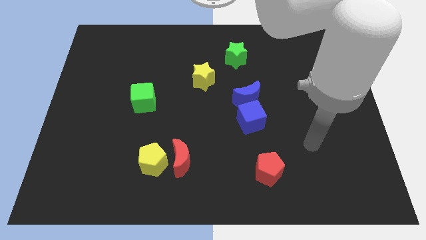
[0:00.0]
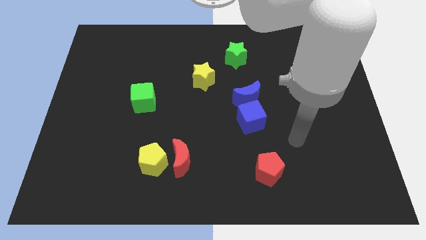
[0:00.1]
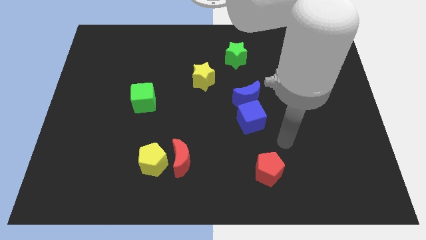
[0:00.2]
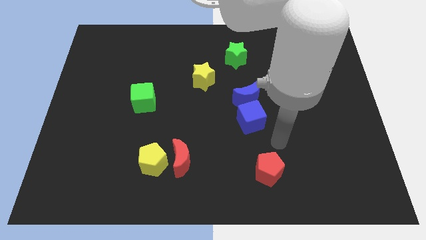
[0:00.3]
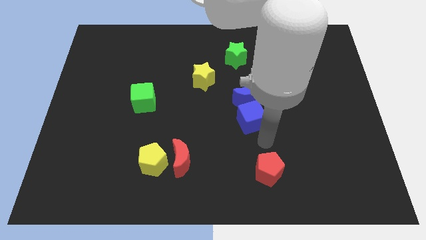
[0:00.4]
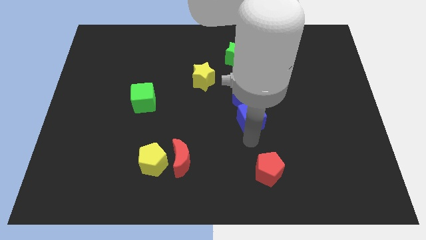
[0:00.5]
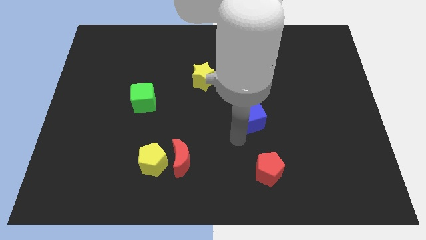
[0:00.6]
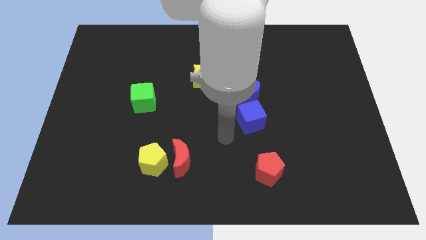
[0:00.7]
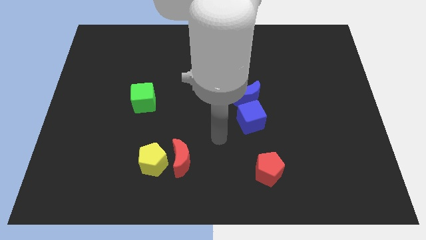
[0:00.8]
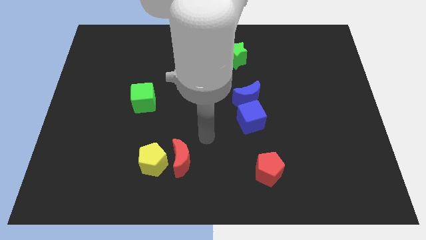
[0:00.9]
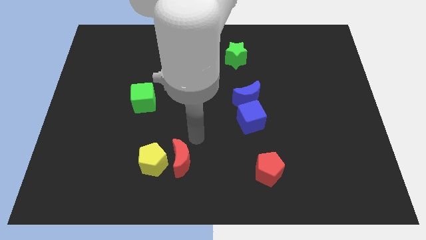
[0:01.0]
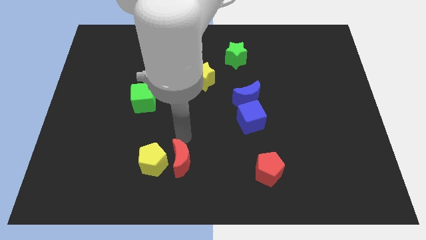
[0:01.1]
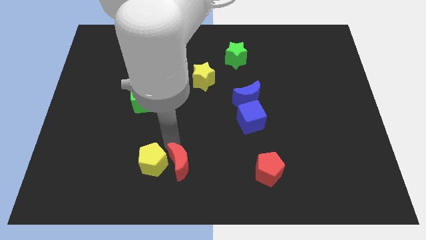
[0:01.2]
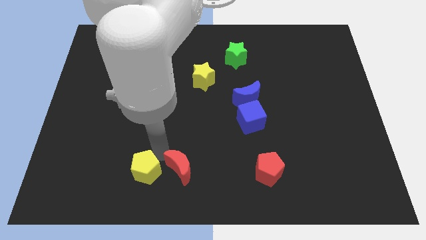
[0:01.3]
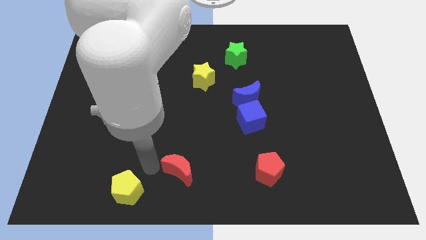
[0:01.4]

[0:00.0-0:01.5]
separate the red moon from the yellow pentagon

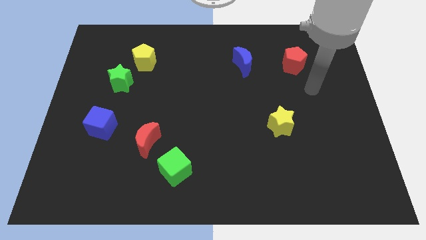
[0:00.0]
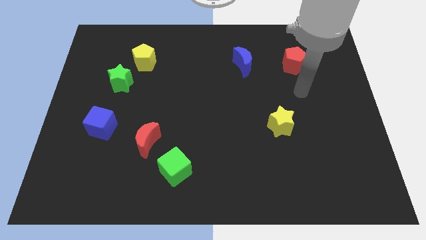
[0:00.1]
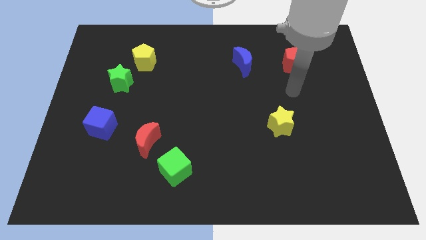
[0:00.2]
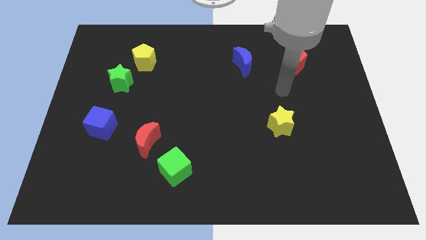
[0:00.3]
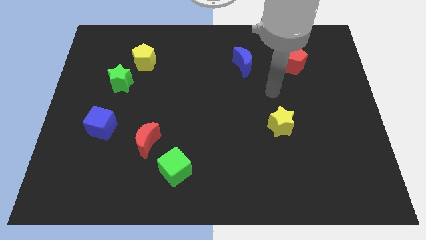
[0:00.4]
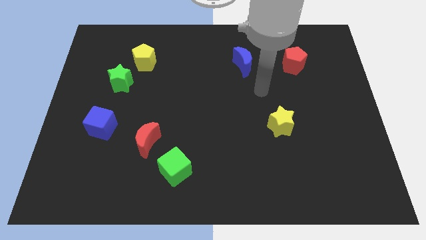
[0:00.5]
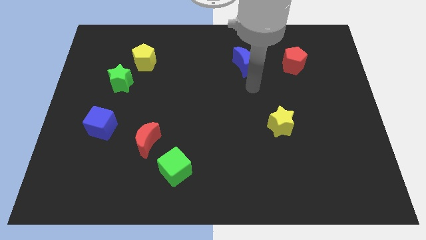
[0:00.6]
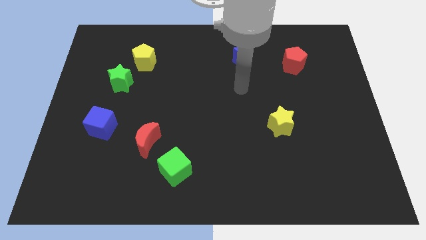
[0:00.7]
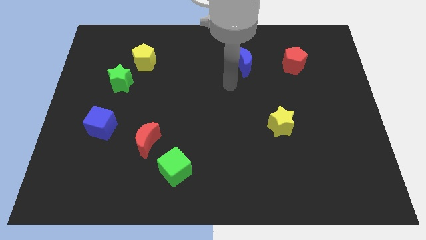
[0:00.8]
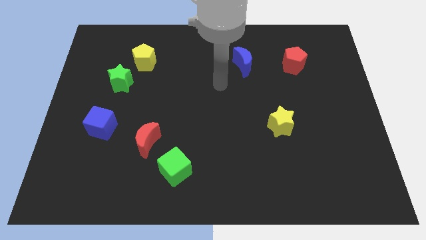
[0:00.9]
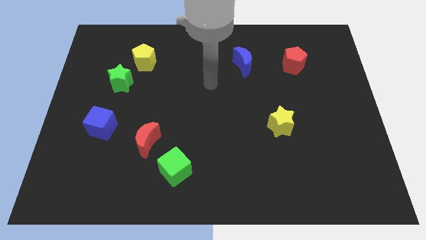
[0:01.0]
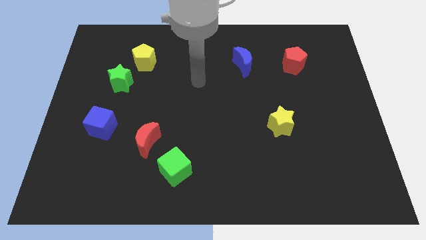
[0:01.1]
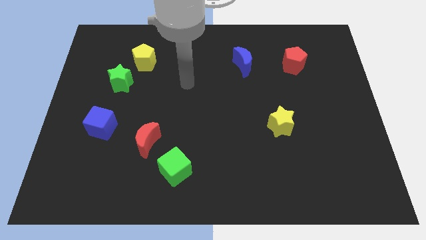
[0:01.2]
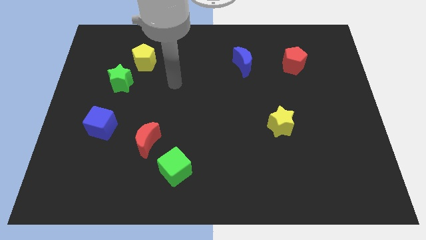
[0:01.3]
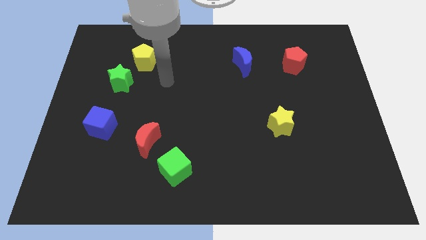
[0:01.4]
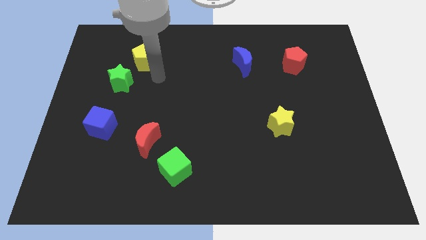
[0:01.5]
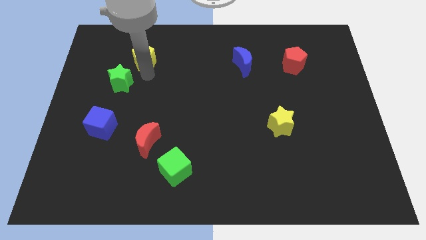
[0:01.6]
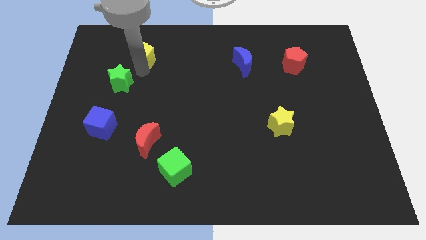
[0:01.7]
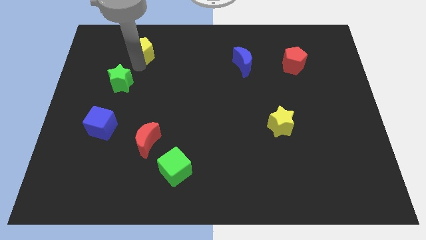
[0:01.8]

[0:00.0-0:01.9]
move the green star away from the yellow pentagon

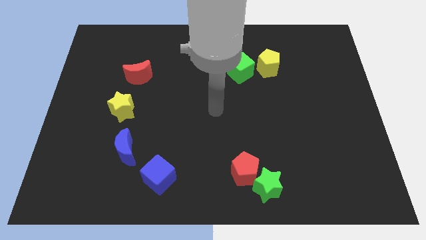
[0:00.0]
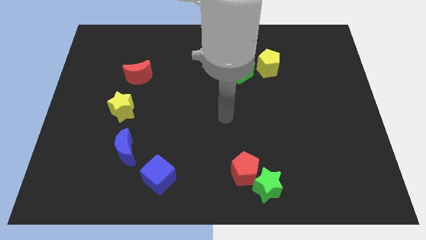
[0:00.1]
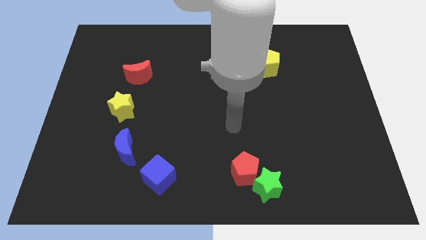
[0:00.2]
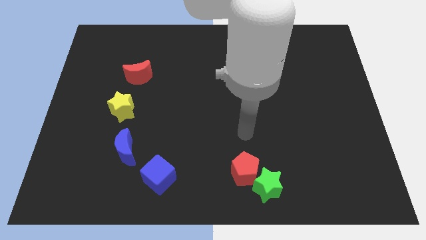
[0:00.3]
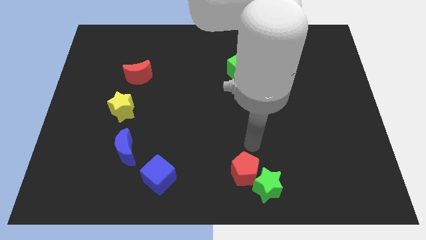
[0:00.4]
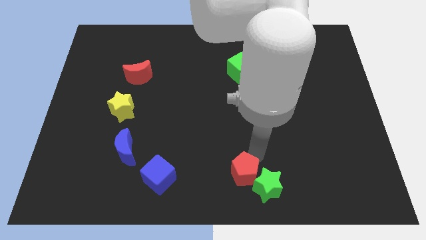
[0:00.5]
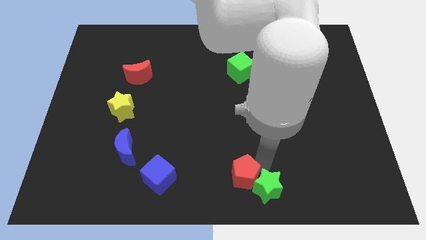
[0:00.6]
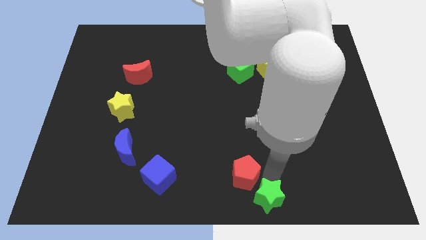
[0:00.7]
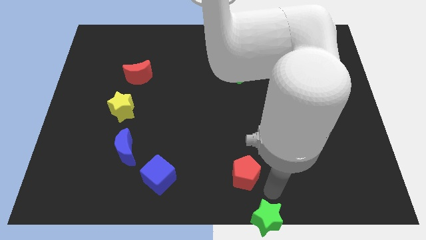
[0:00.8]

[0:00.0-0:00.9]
separate the red pentagon from the green star

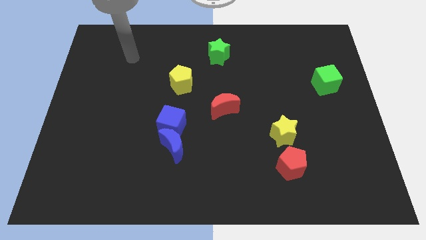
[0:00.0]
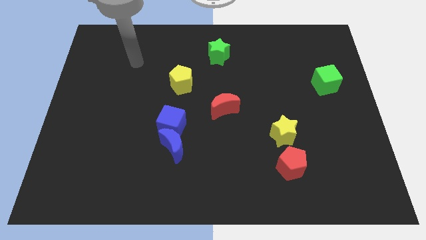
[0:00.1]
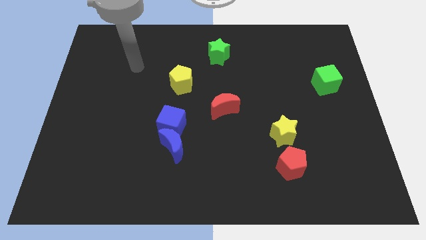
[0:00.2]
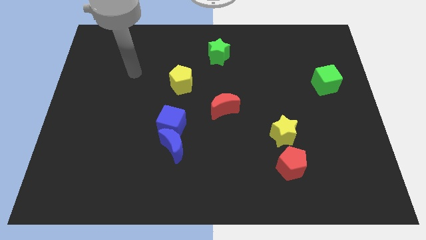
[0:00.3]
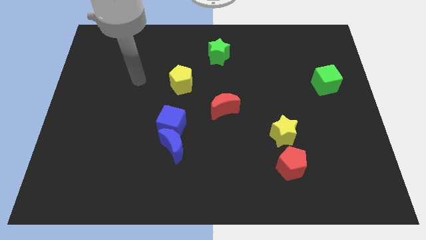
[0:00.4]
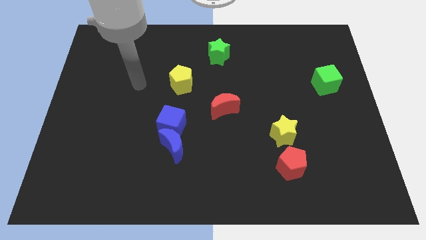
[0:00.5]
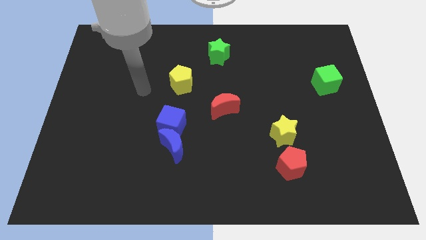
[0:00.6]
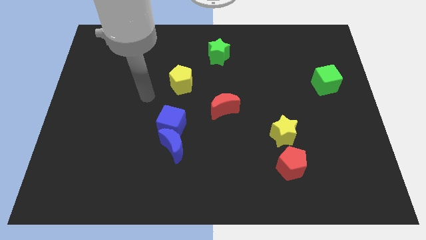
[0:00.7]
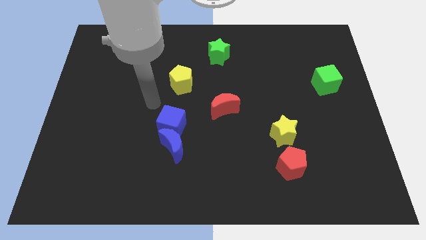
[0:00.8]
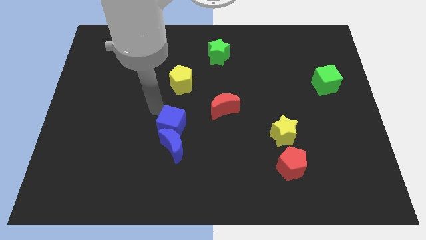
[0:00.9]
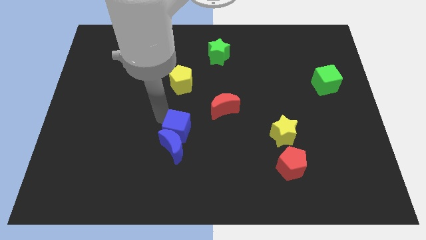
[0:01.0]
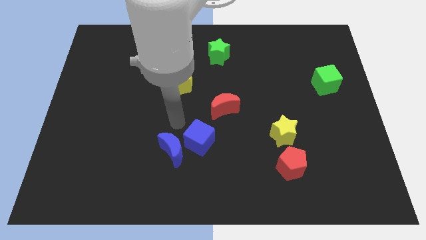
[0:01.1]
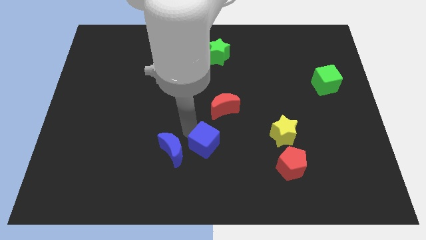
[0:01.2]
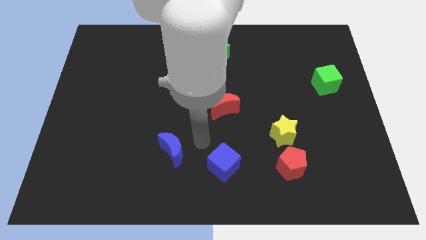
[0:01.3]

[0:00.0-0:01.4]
move the blue moon away from the blue cube

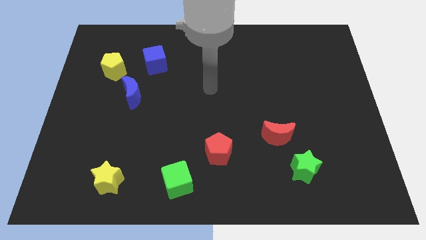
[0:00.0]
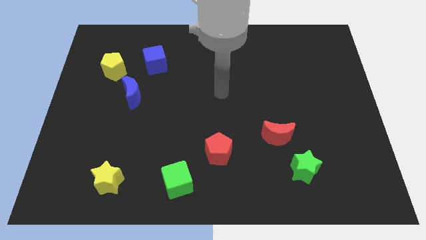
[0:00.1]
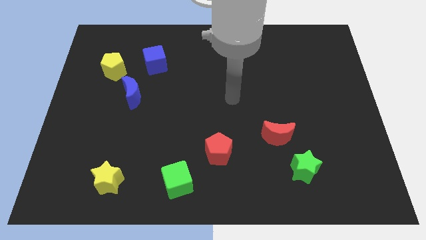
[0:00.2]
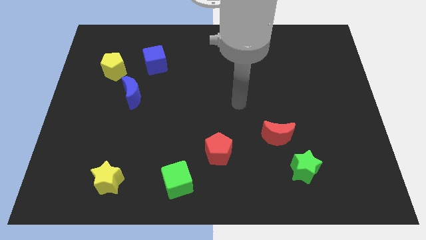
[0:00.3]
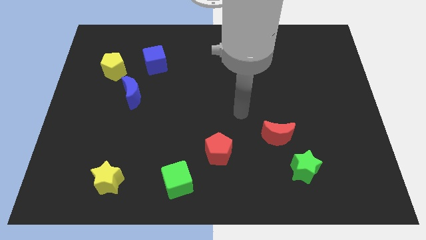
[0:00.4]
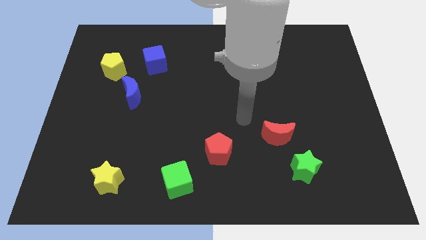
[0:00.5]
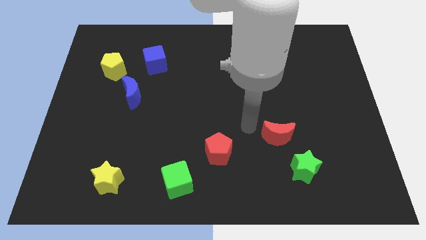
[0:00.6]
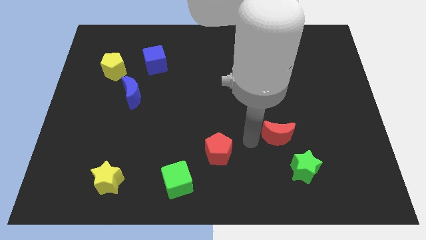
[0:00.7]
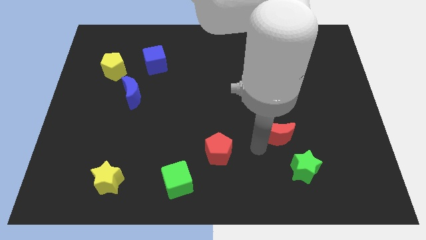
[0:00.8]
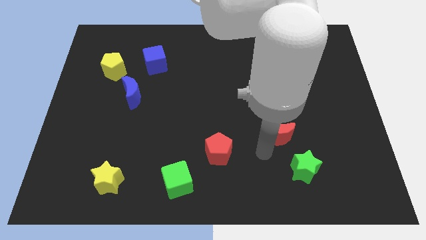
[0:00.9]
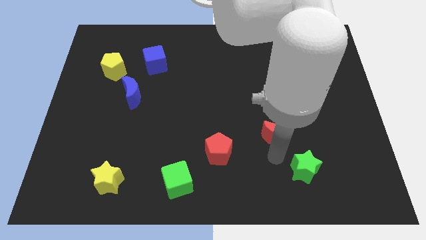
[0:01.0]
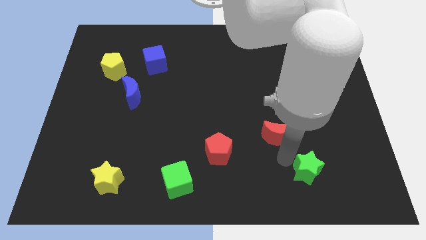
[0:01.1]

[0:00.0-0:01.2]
separate the red moon from the green star

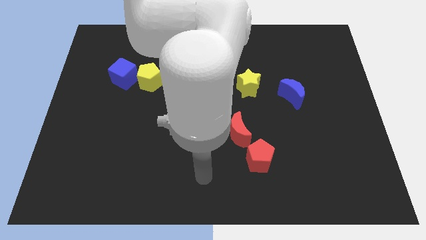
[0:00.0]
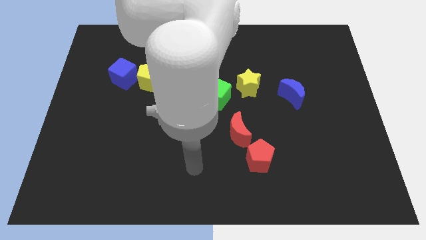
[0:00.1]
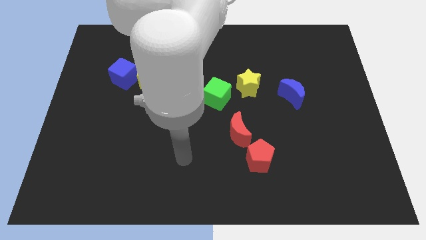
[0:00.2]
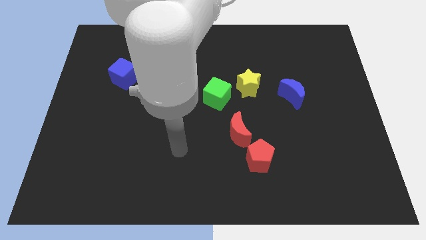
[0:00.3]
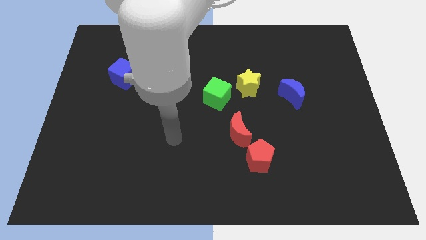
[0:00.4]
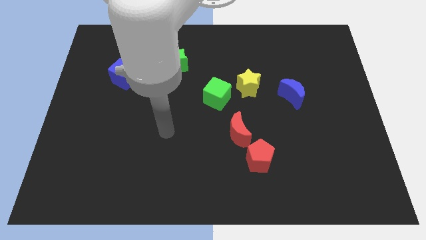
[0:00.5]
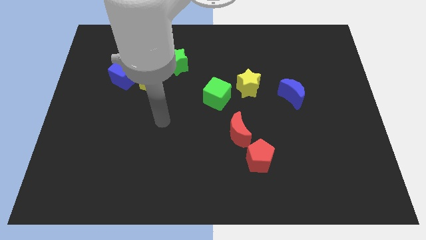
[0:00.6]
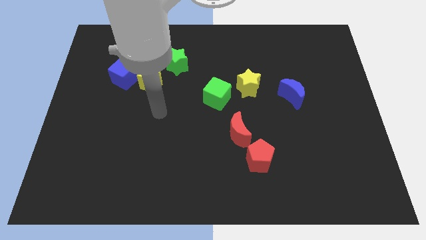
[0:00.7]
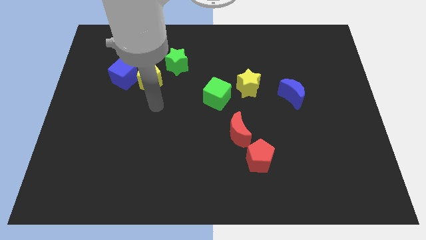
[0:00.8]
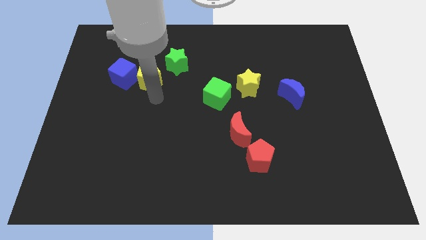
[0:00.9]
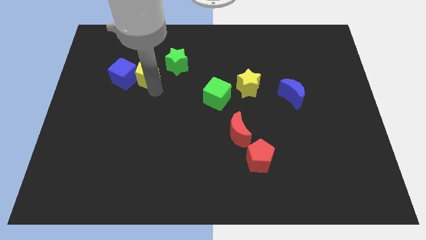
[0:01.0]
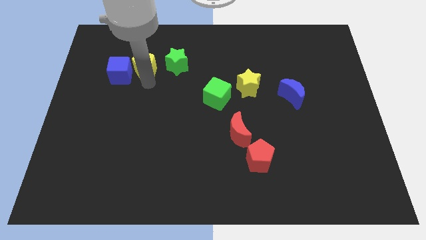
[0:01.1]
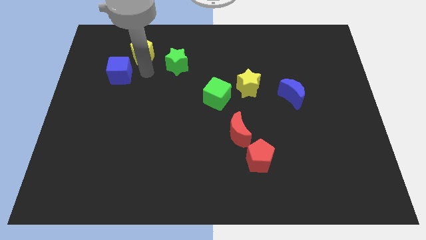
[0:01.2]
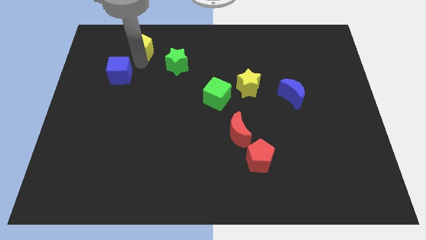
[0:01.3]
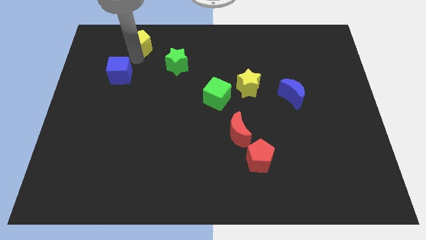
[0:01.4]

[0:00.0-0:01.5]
pull the blue cube apart from the yellow pentagon

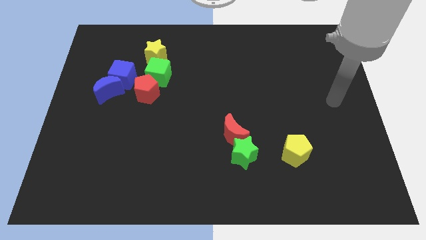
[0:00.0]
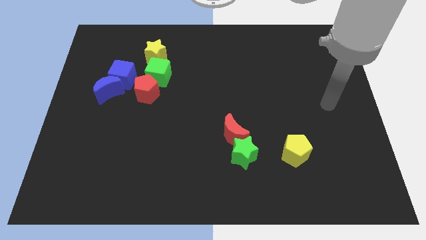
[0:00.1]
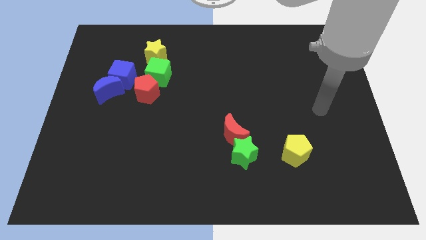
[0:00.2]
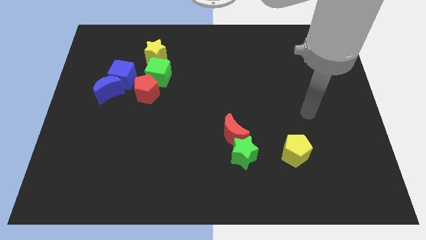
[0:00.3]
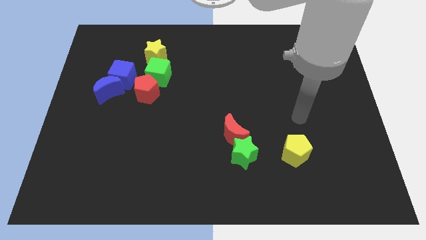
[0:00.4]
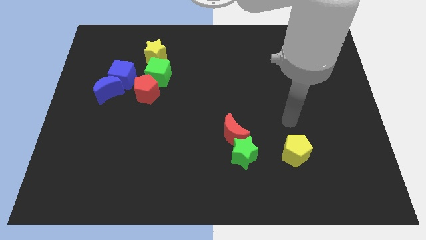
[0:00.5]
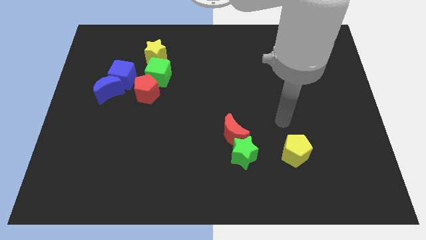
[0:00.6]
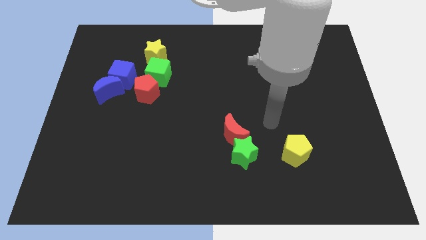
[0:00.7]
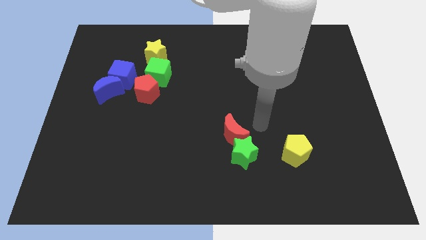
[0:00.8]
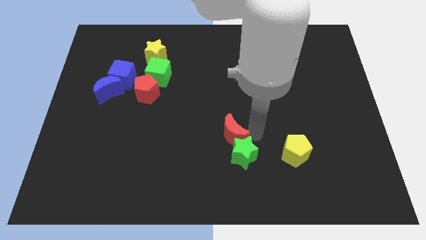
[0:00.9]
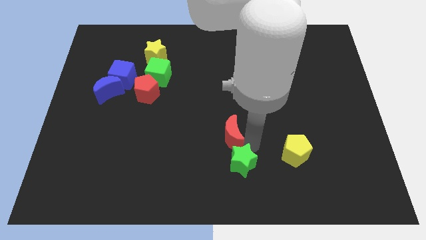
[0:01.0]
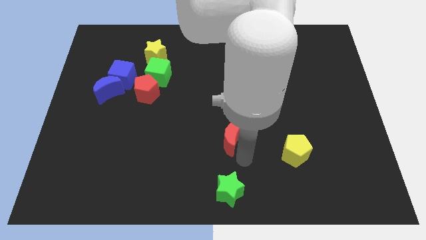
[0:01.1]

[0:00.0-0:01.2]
pull the red moon apart from the green star
